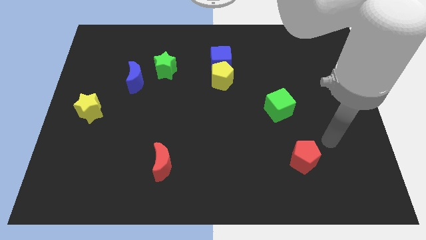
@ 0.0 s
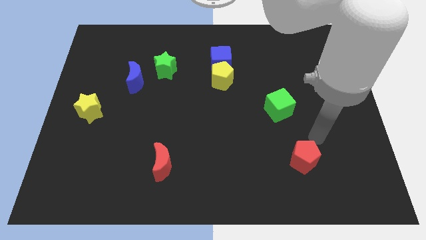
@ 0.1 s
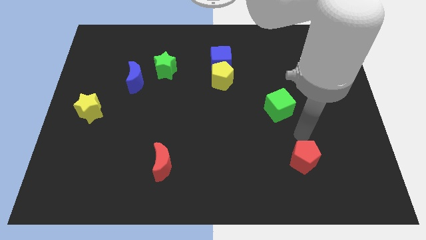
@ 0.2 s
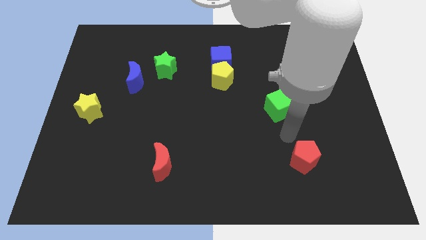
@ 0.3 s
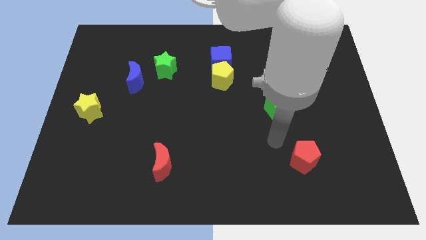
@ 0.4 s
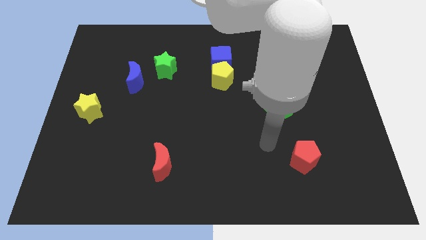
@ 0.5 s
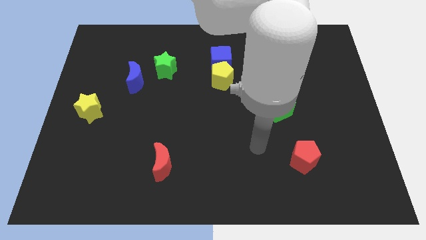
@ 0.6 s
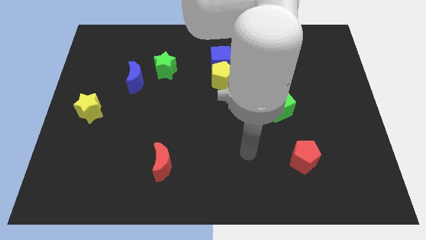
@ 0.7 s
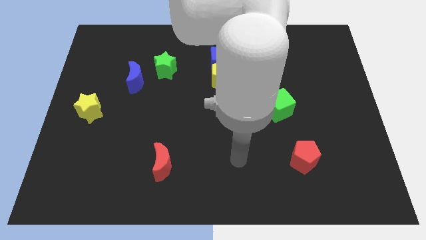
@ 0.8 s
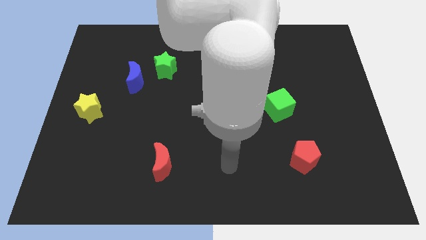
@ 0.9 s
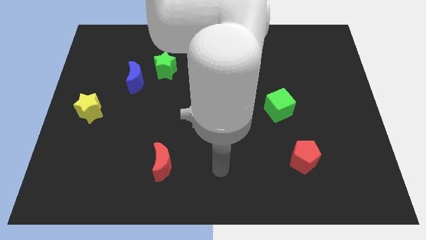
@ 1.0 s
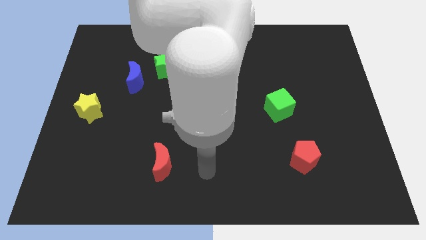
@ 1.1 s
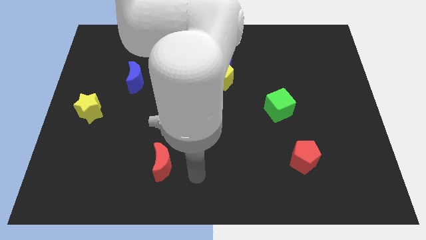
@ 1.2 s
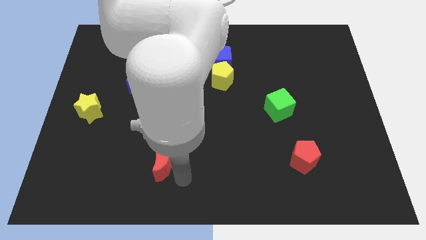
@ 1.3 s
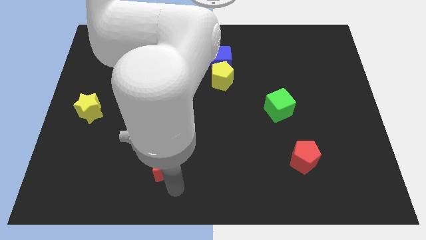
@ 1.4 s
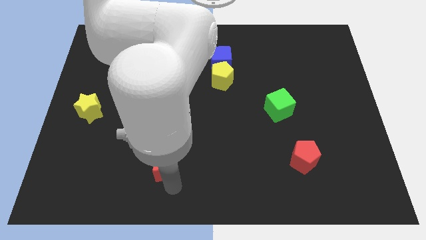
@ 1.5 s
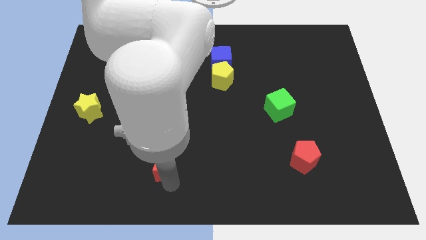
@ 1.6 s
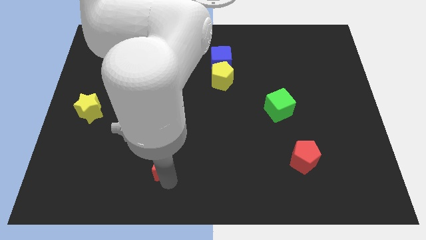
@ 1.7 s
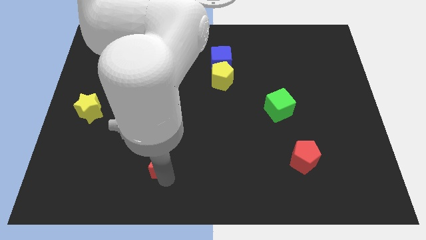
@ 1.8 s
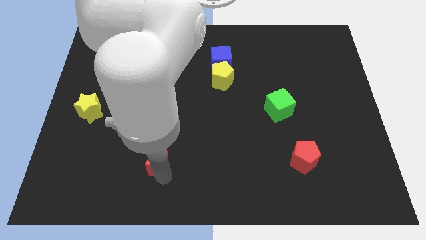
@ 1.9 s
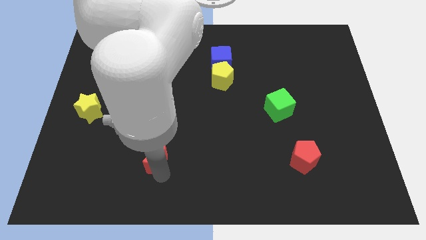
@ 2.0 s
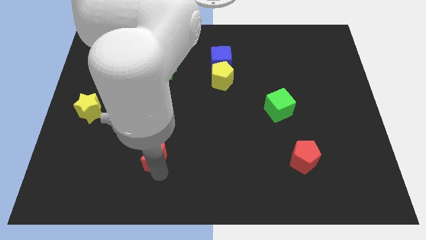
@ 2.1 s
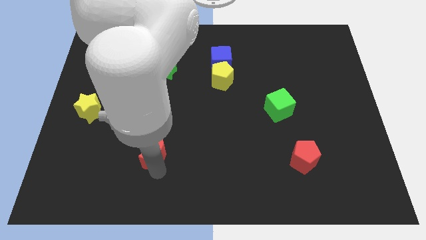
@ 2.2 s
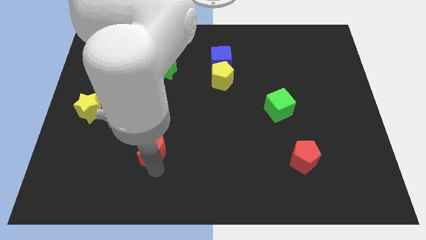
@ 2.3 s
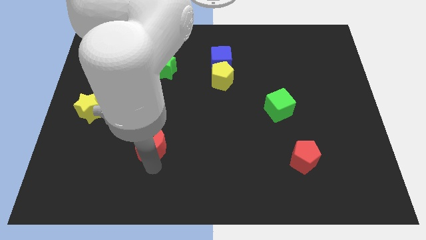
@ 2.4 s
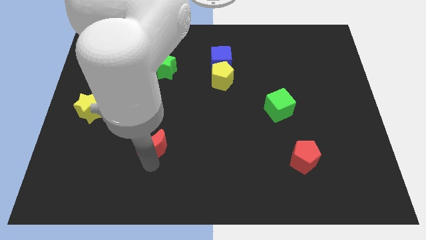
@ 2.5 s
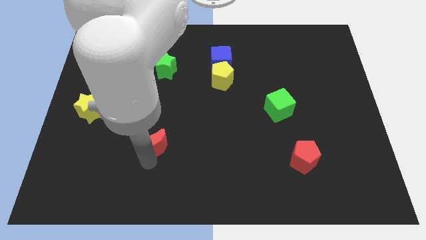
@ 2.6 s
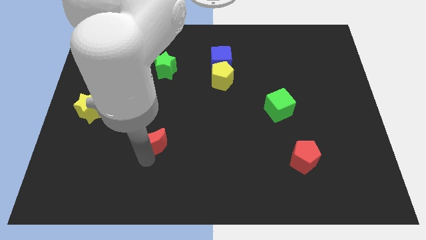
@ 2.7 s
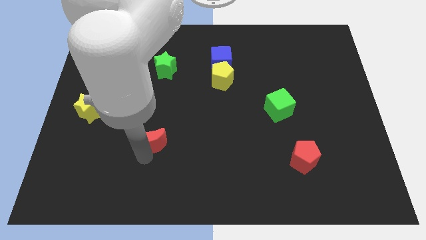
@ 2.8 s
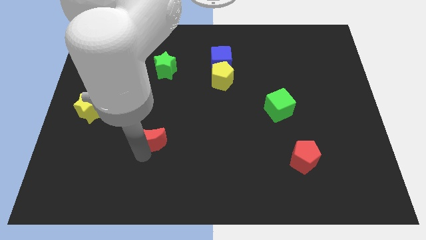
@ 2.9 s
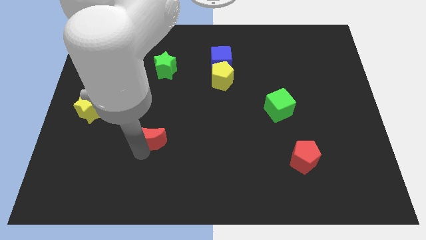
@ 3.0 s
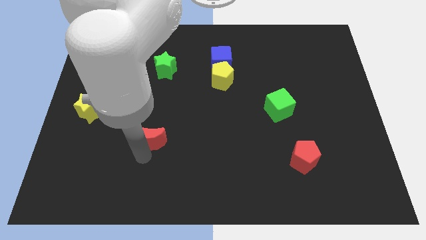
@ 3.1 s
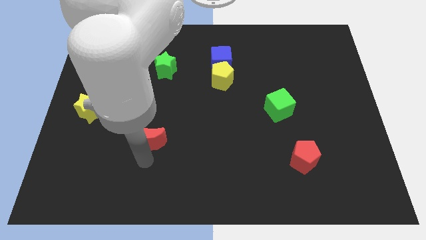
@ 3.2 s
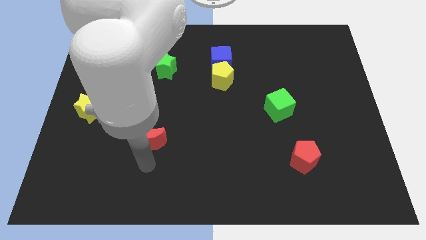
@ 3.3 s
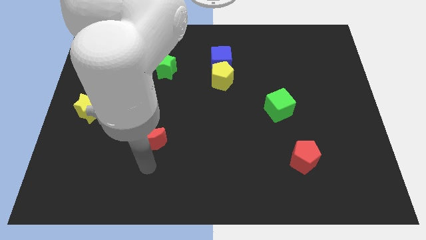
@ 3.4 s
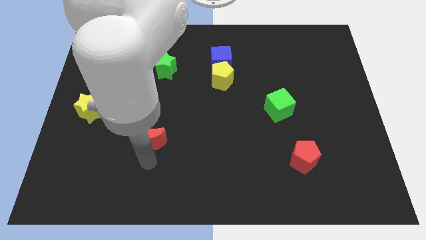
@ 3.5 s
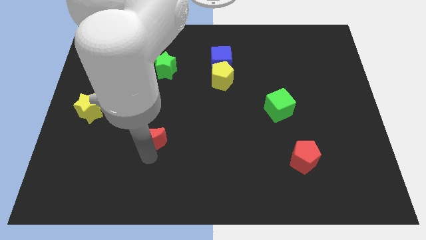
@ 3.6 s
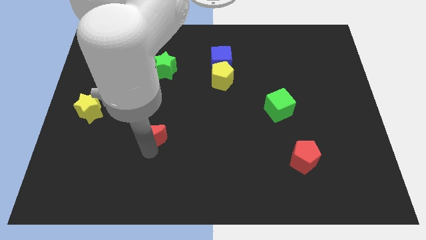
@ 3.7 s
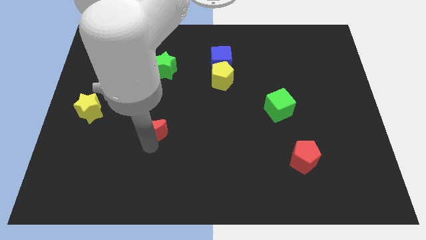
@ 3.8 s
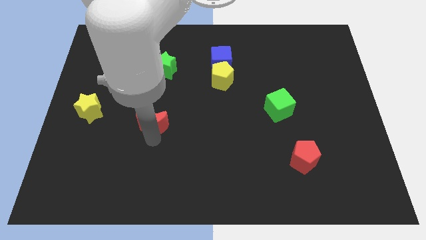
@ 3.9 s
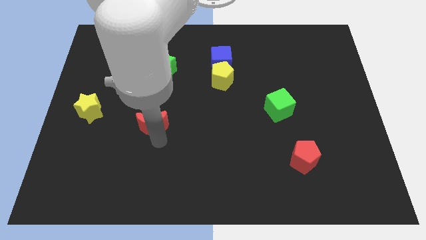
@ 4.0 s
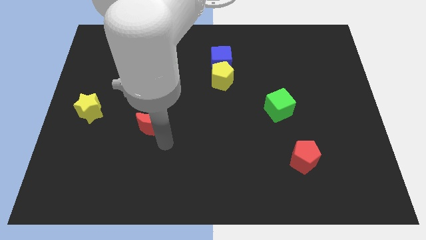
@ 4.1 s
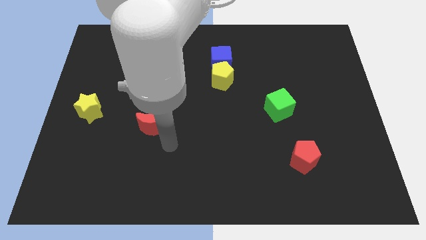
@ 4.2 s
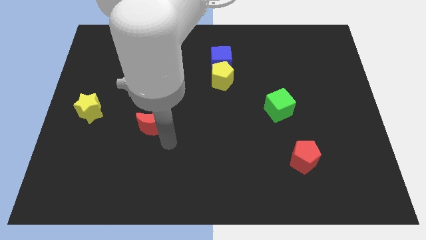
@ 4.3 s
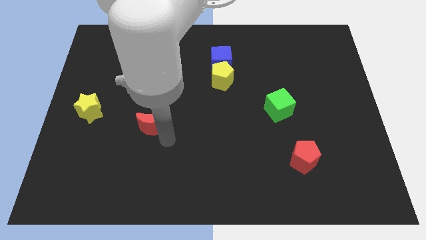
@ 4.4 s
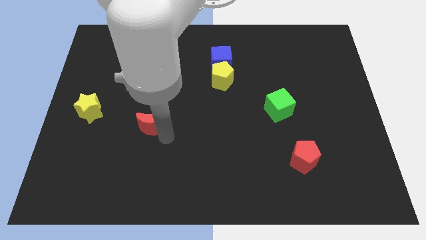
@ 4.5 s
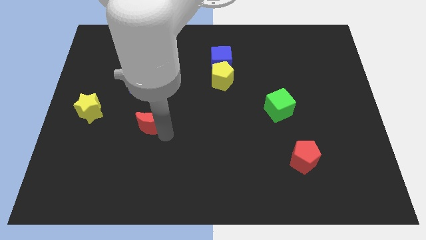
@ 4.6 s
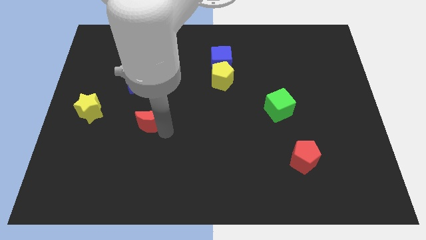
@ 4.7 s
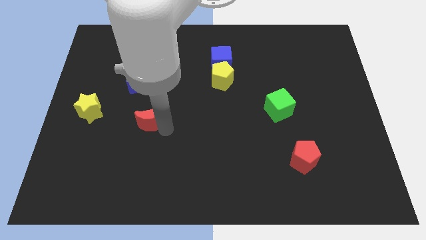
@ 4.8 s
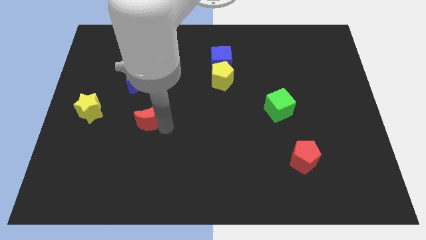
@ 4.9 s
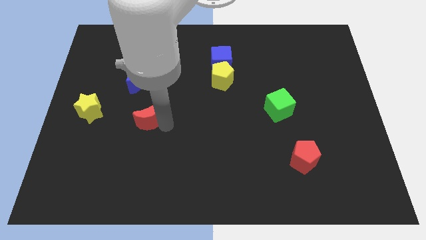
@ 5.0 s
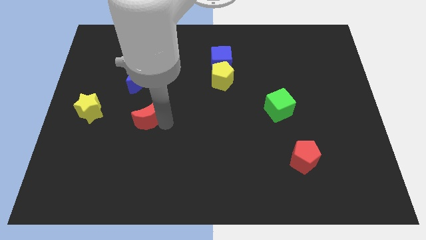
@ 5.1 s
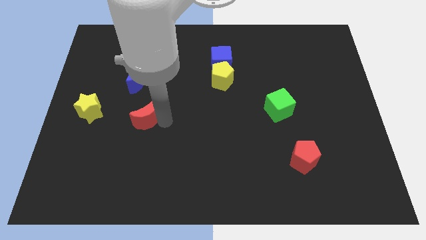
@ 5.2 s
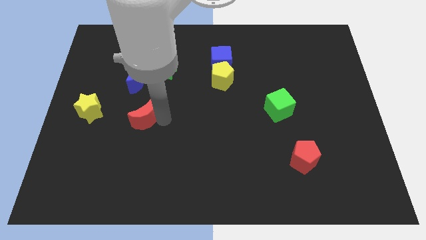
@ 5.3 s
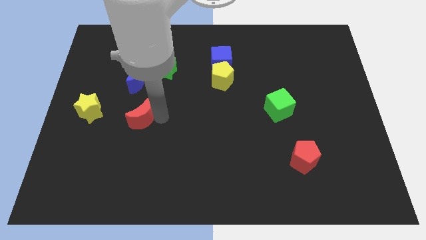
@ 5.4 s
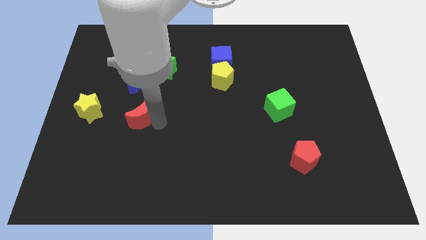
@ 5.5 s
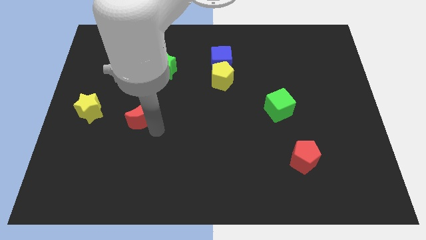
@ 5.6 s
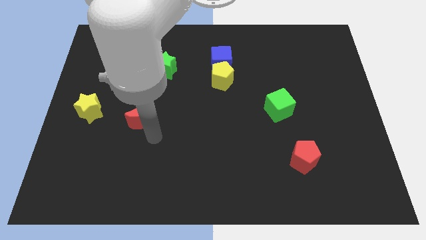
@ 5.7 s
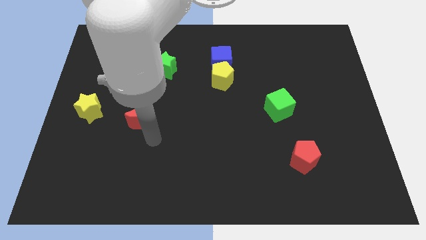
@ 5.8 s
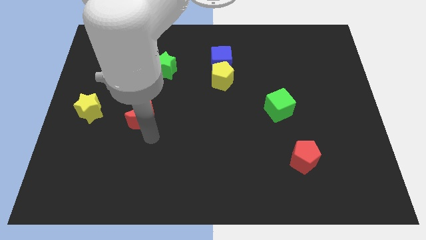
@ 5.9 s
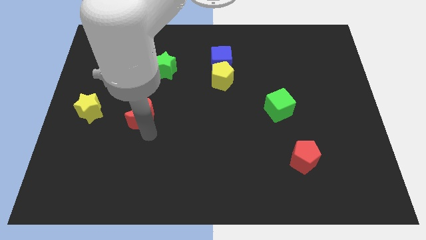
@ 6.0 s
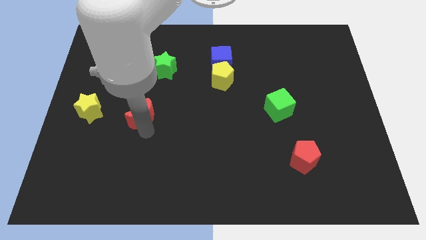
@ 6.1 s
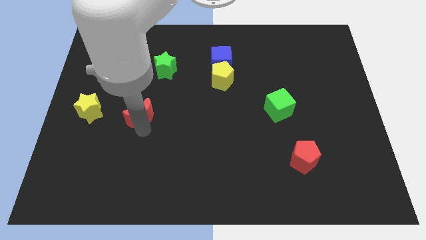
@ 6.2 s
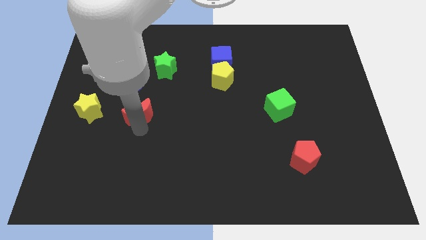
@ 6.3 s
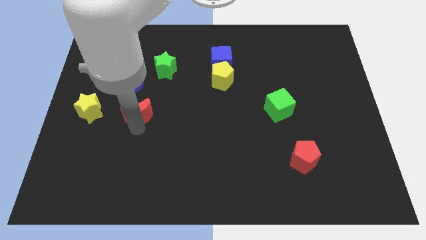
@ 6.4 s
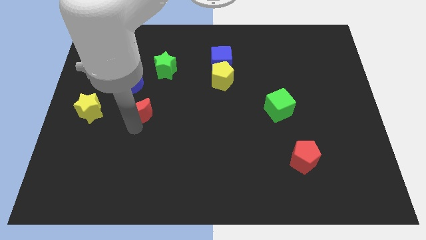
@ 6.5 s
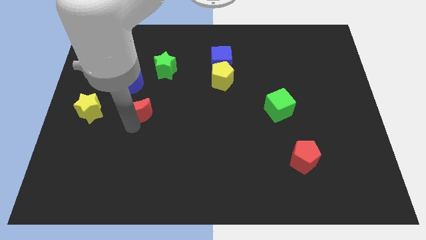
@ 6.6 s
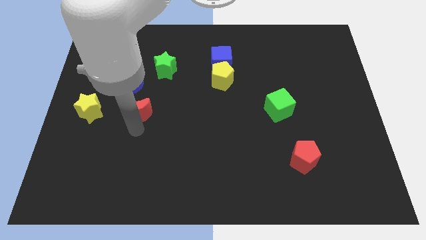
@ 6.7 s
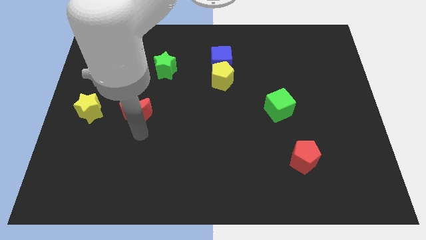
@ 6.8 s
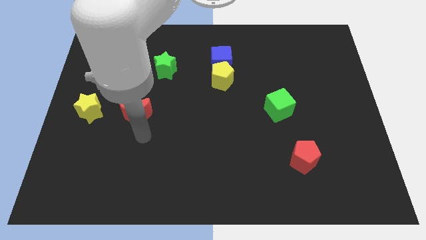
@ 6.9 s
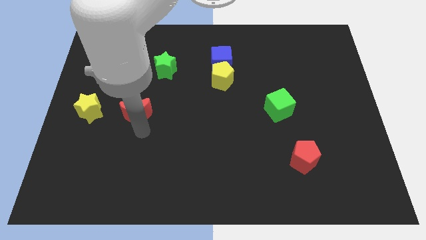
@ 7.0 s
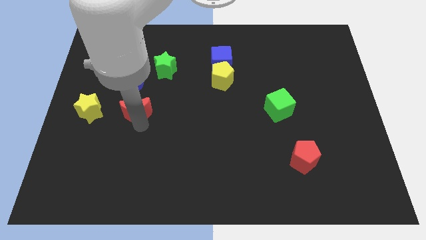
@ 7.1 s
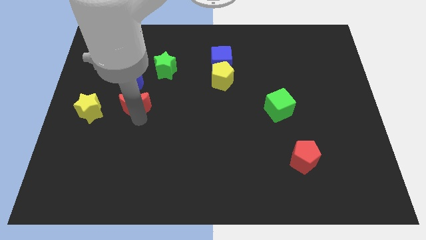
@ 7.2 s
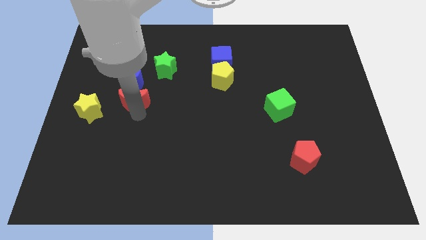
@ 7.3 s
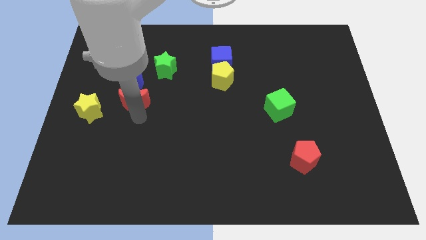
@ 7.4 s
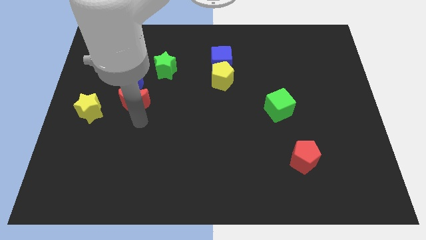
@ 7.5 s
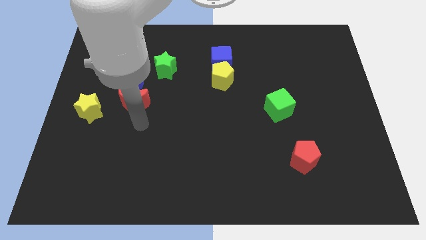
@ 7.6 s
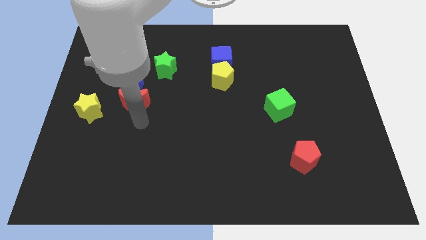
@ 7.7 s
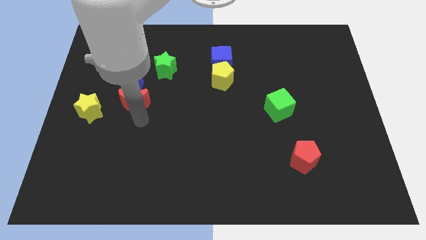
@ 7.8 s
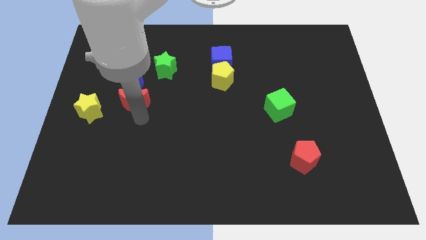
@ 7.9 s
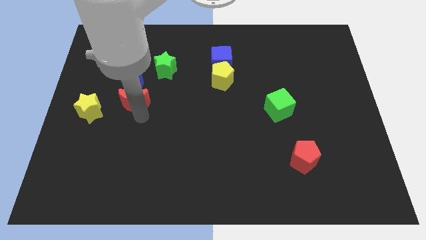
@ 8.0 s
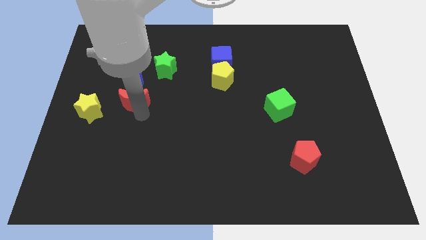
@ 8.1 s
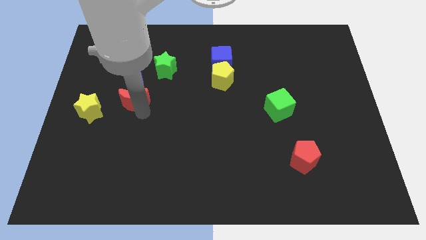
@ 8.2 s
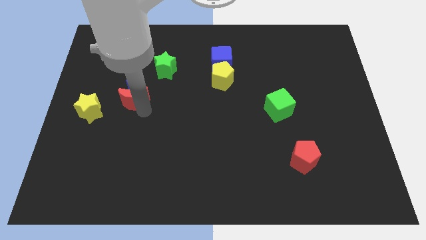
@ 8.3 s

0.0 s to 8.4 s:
move the red moon to the bottom left of the green star
